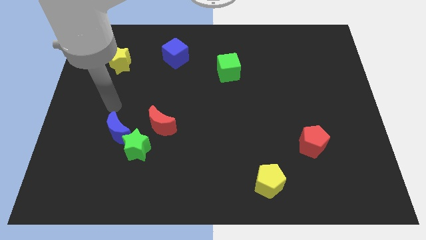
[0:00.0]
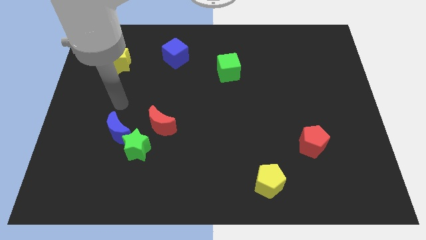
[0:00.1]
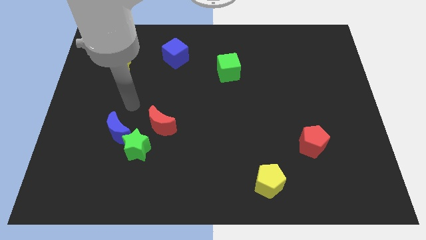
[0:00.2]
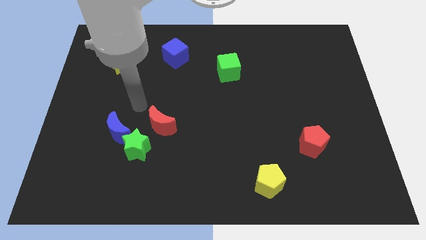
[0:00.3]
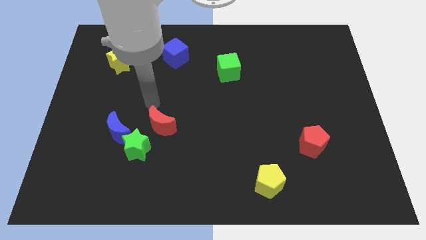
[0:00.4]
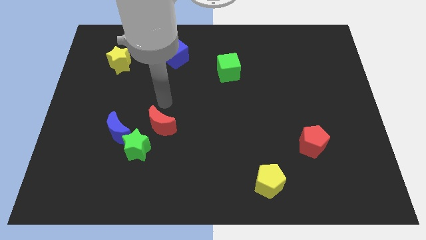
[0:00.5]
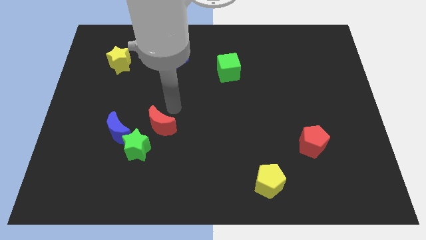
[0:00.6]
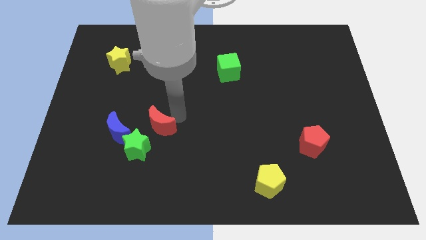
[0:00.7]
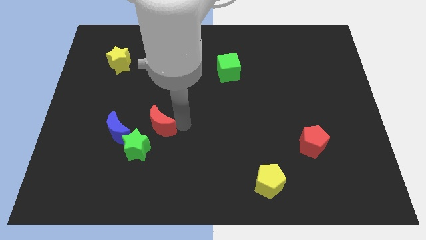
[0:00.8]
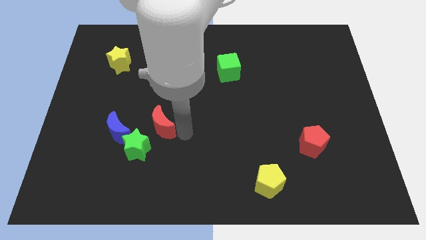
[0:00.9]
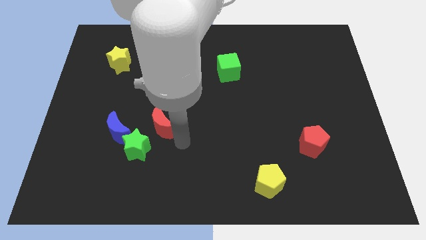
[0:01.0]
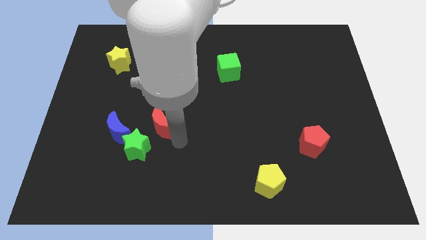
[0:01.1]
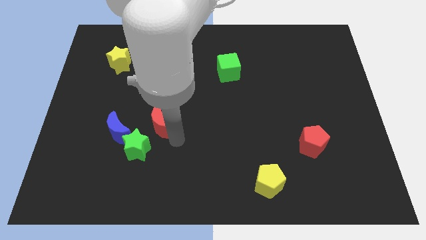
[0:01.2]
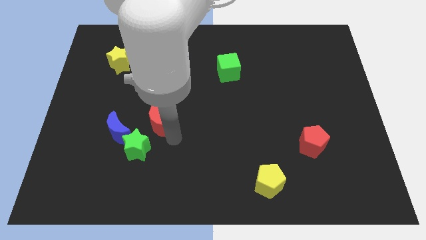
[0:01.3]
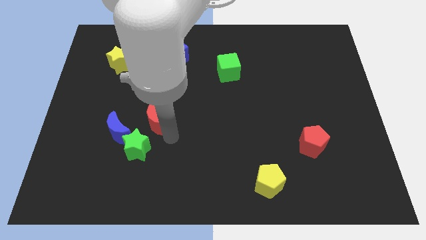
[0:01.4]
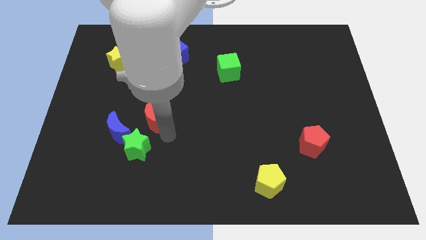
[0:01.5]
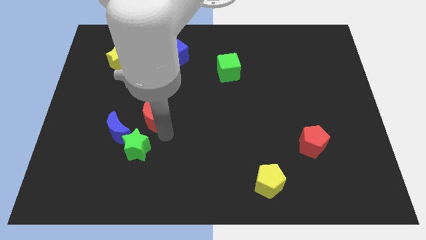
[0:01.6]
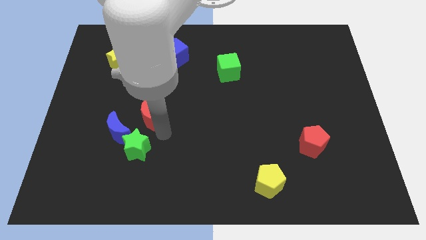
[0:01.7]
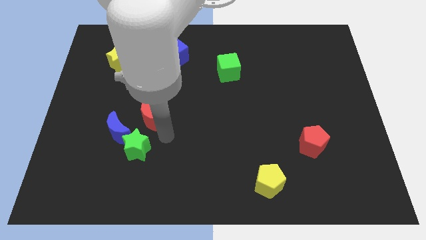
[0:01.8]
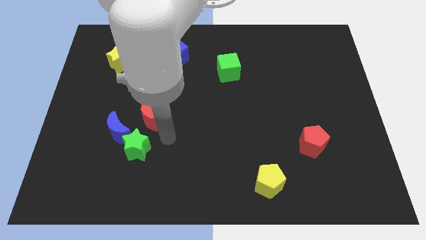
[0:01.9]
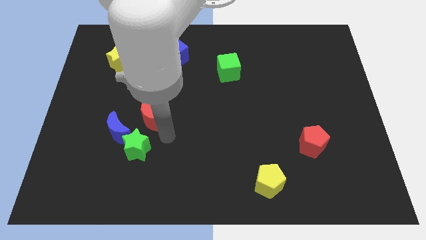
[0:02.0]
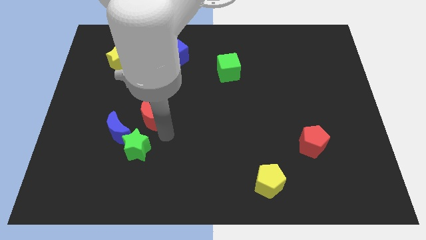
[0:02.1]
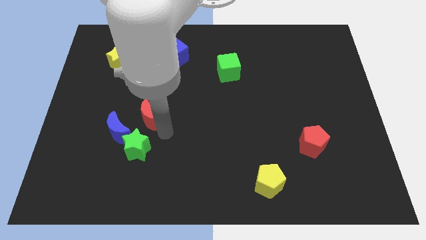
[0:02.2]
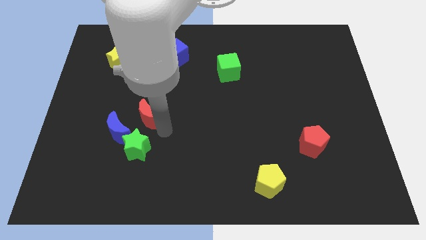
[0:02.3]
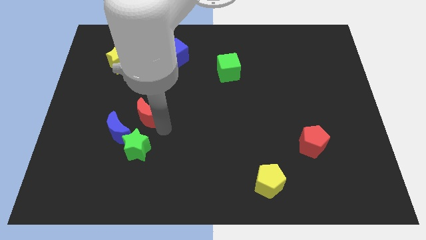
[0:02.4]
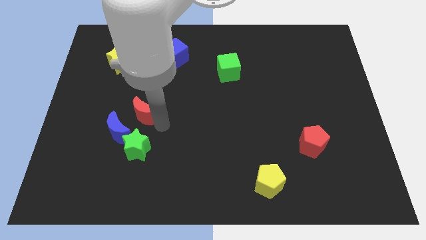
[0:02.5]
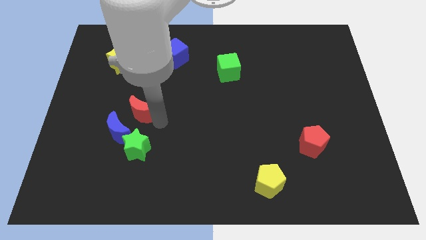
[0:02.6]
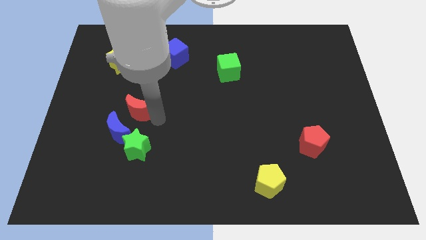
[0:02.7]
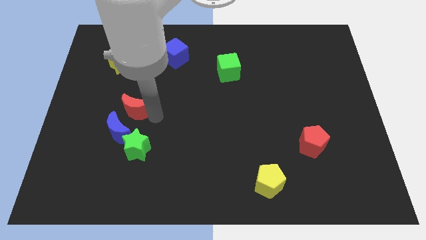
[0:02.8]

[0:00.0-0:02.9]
slide the red moon up and then to the left slightly

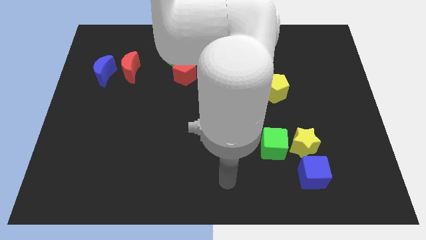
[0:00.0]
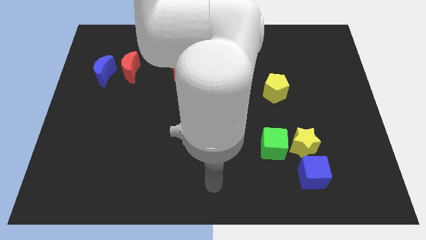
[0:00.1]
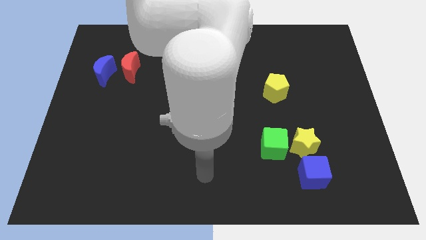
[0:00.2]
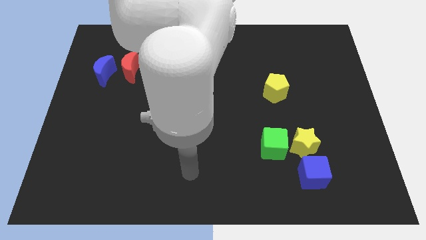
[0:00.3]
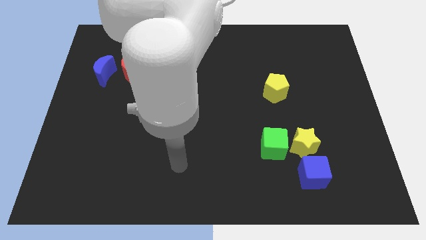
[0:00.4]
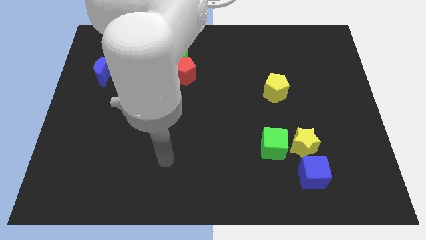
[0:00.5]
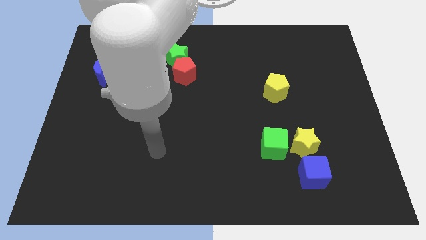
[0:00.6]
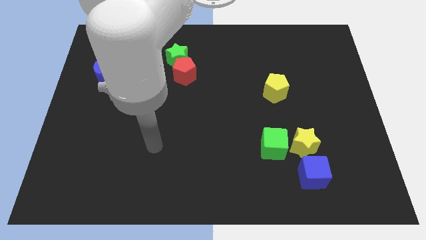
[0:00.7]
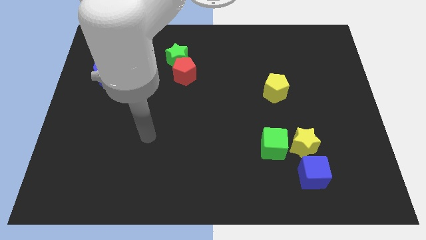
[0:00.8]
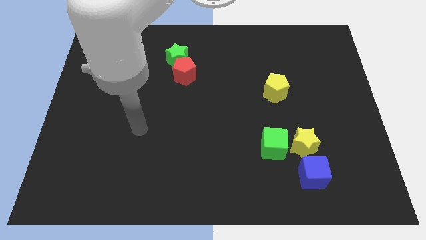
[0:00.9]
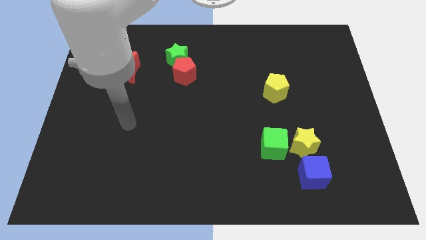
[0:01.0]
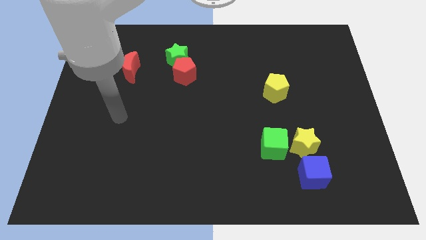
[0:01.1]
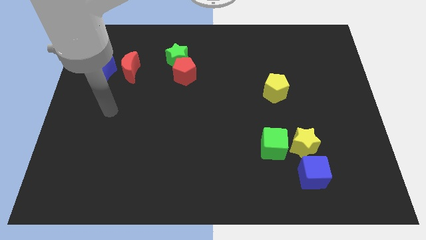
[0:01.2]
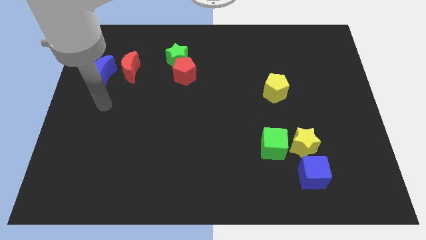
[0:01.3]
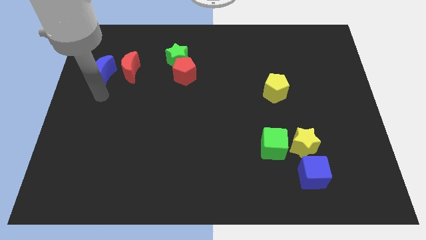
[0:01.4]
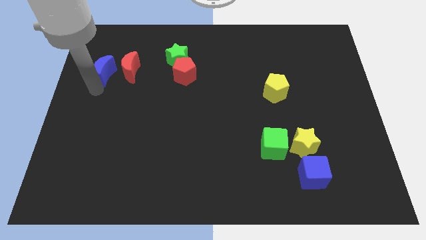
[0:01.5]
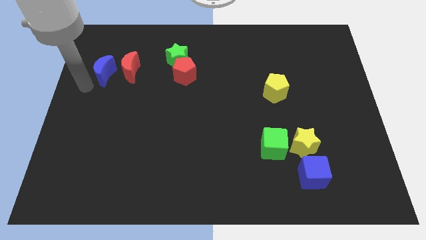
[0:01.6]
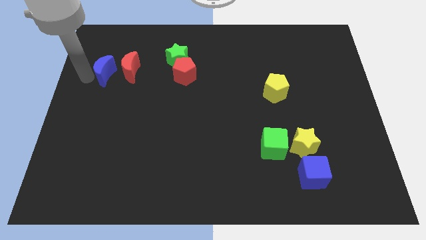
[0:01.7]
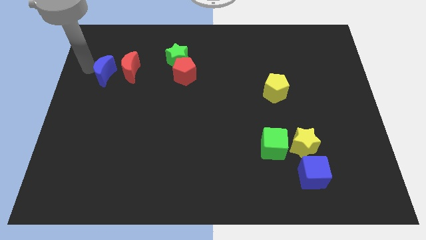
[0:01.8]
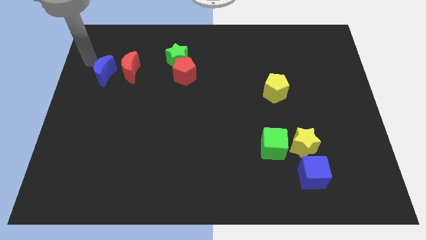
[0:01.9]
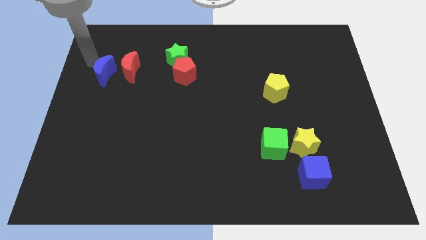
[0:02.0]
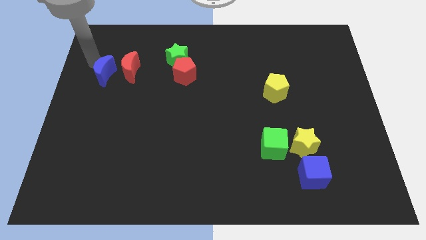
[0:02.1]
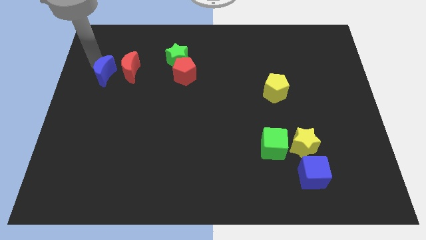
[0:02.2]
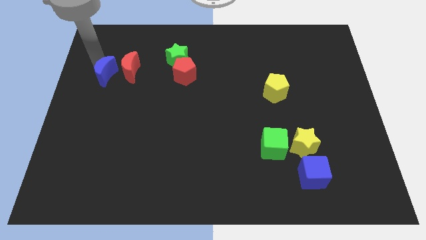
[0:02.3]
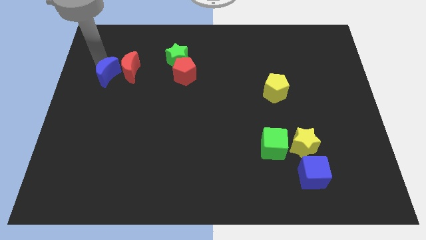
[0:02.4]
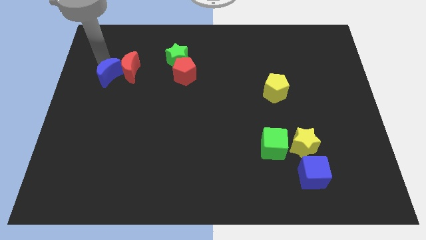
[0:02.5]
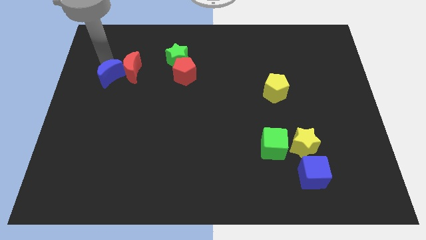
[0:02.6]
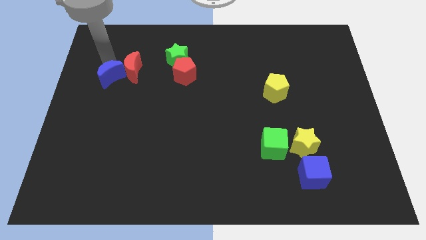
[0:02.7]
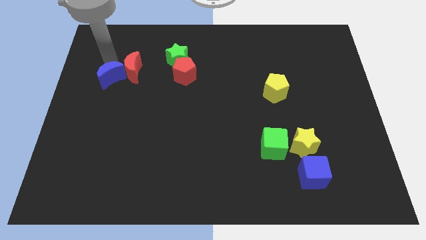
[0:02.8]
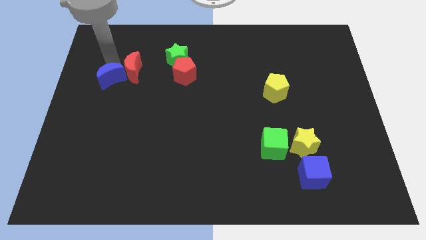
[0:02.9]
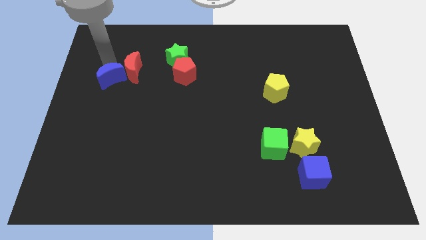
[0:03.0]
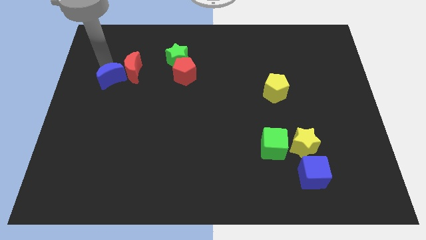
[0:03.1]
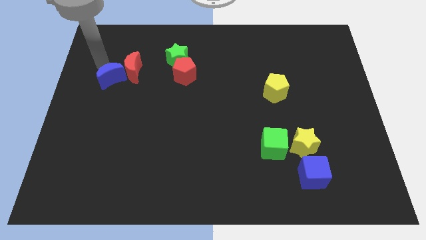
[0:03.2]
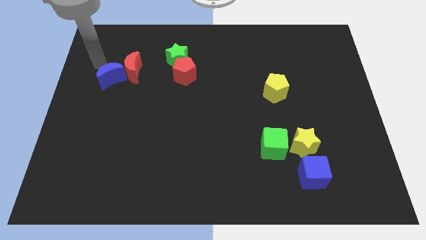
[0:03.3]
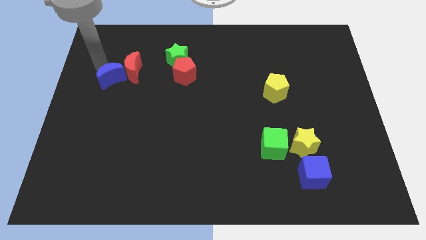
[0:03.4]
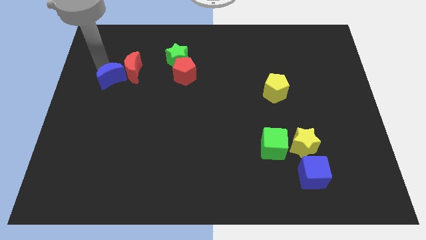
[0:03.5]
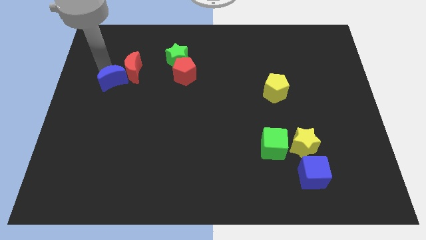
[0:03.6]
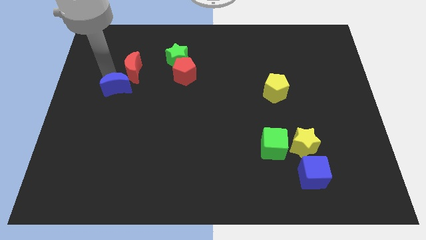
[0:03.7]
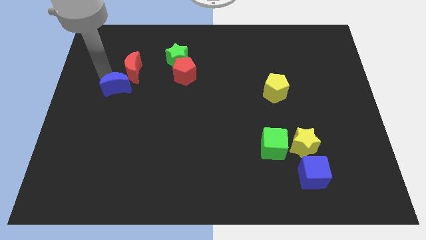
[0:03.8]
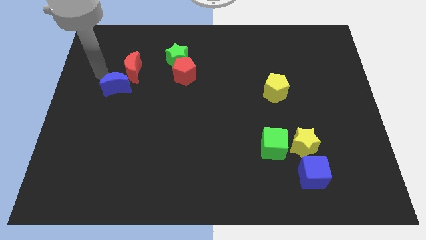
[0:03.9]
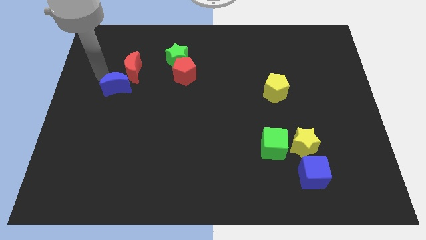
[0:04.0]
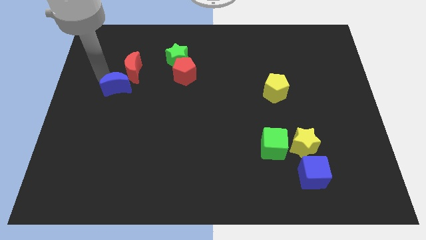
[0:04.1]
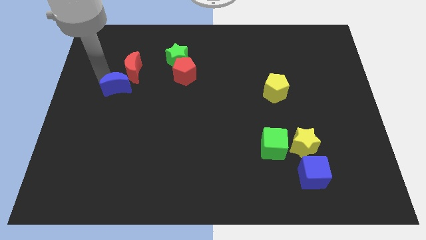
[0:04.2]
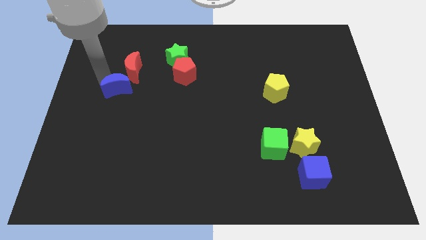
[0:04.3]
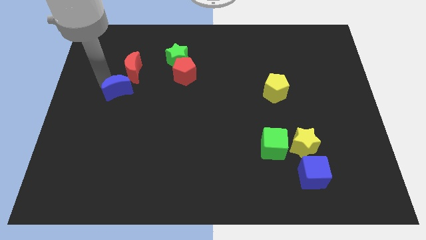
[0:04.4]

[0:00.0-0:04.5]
slide the blue moon slightly downwards and to the right

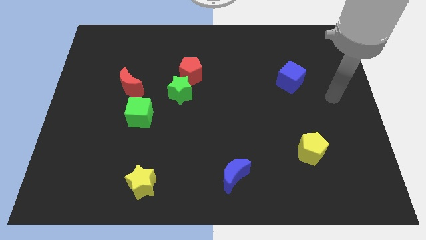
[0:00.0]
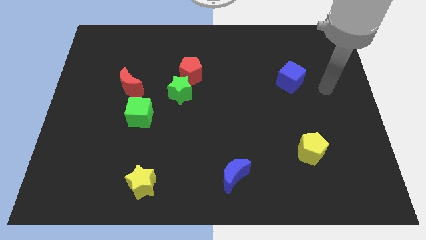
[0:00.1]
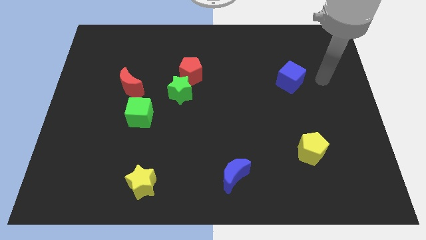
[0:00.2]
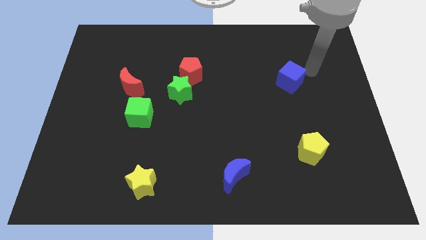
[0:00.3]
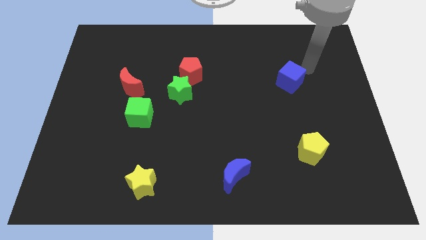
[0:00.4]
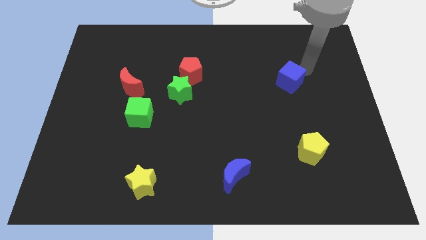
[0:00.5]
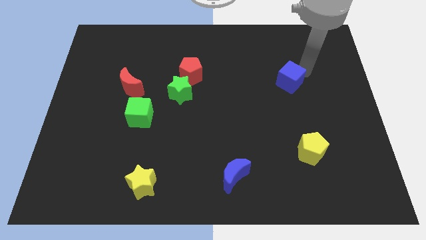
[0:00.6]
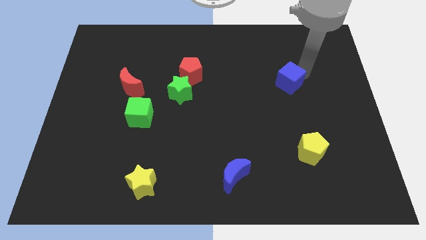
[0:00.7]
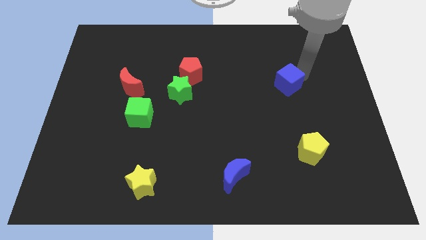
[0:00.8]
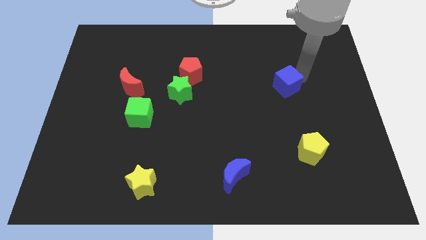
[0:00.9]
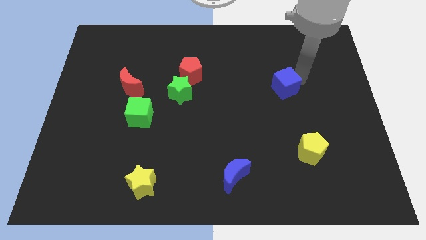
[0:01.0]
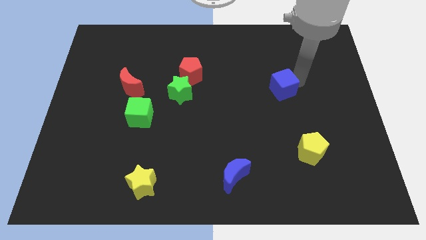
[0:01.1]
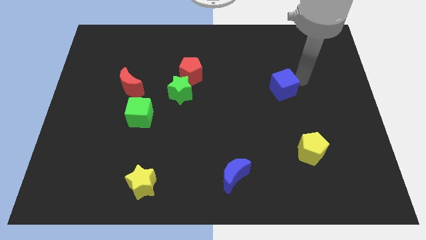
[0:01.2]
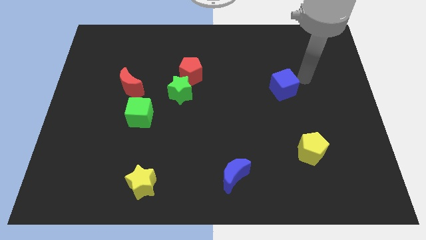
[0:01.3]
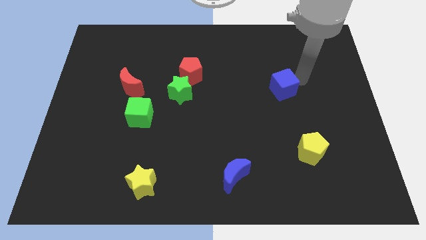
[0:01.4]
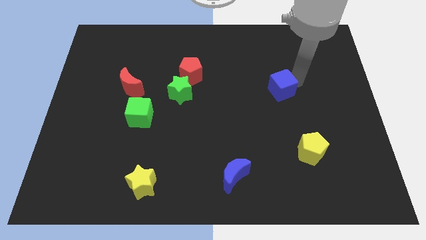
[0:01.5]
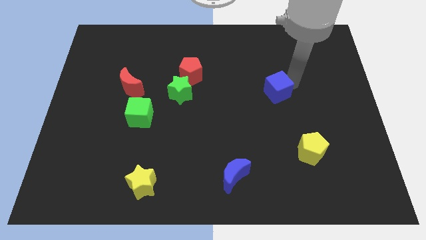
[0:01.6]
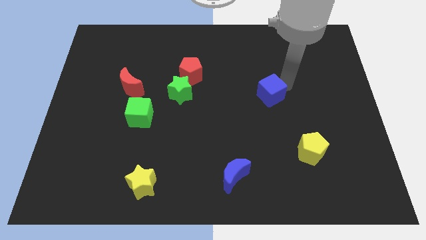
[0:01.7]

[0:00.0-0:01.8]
slightly move the blue cube downwards and then left
